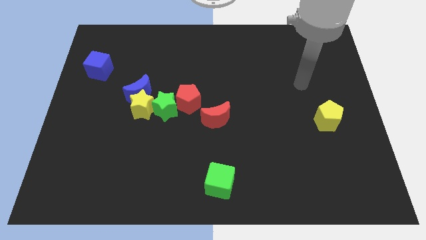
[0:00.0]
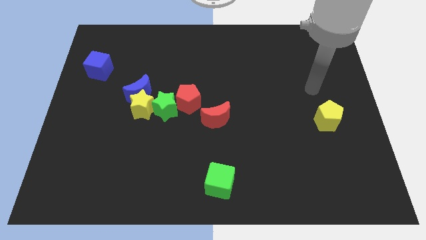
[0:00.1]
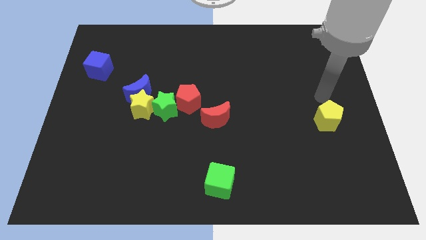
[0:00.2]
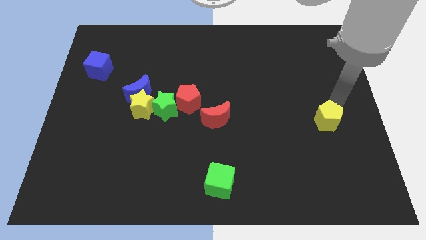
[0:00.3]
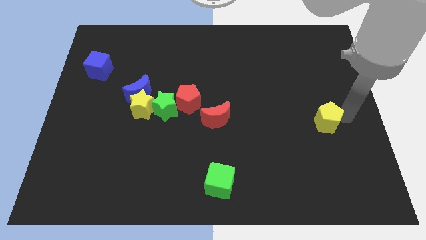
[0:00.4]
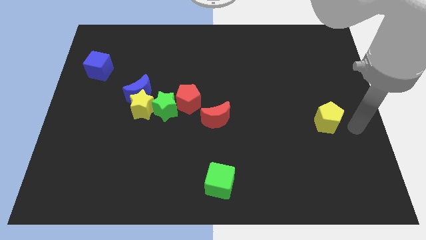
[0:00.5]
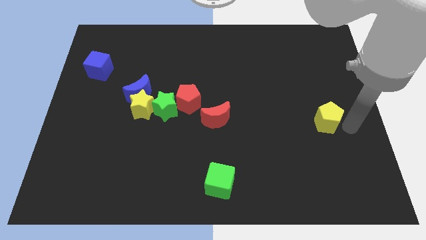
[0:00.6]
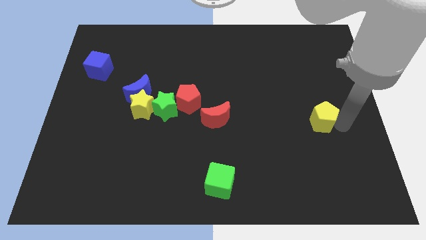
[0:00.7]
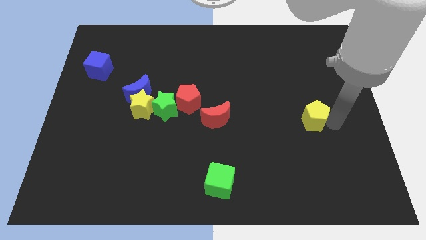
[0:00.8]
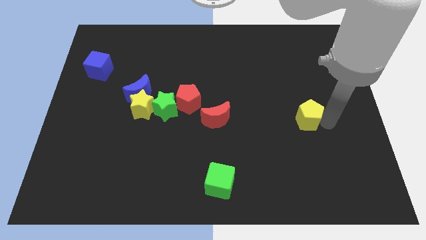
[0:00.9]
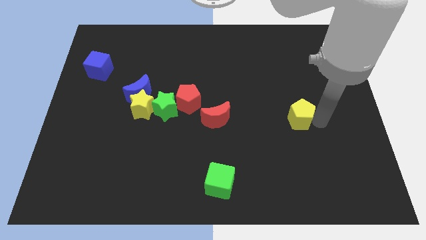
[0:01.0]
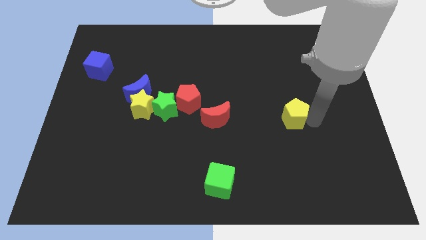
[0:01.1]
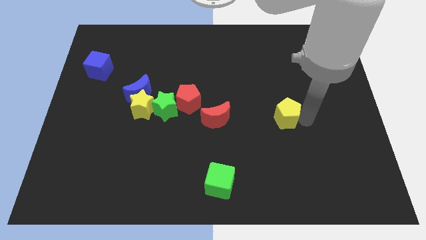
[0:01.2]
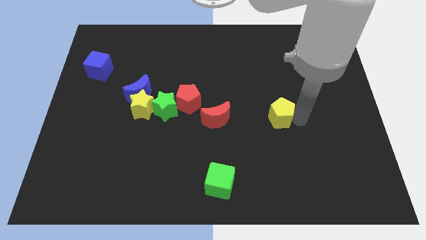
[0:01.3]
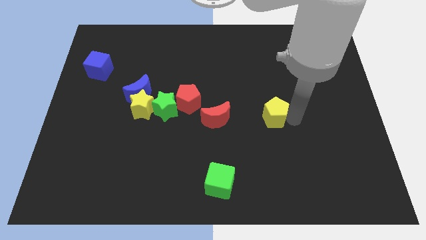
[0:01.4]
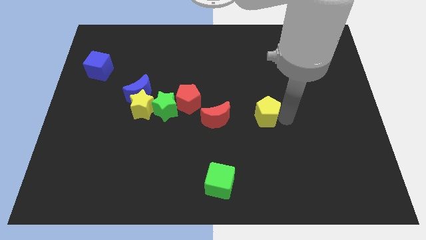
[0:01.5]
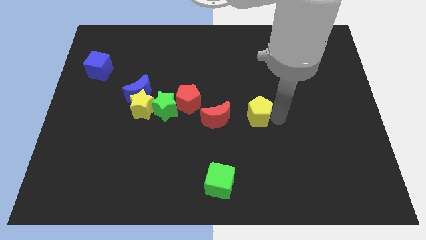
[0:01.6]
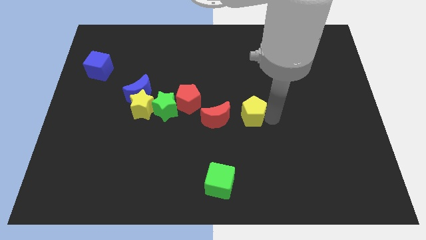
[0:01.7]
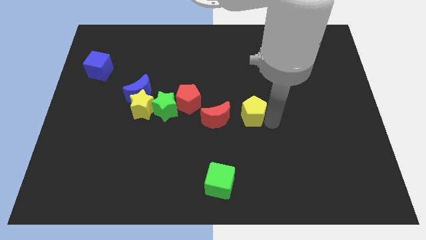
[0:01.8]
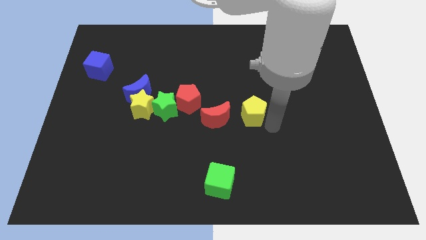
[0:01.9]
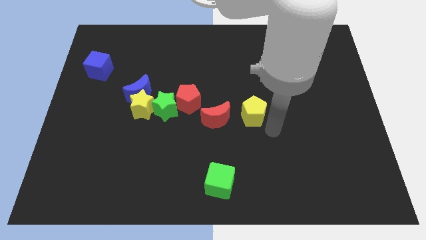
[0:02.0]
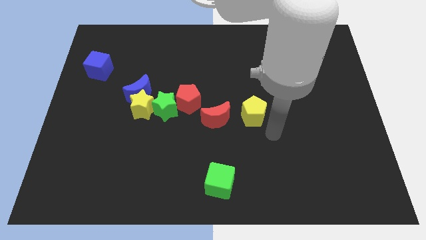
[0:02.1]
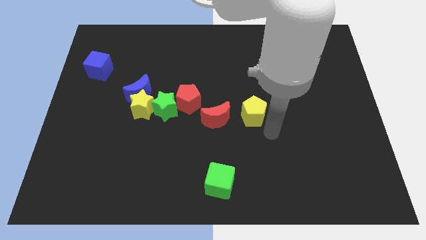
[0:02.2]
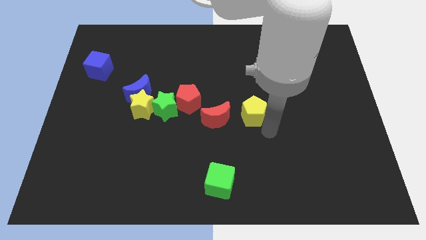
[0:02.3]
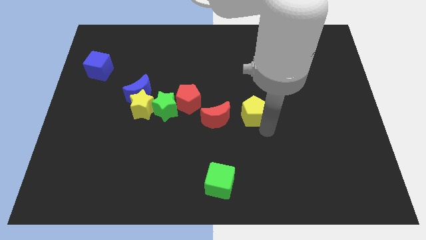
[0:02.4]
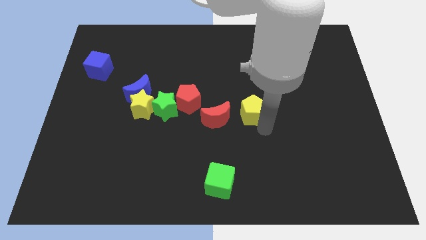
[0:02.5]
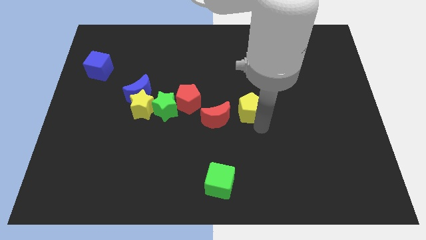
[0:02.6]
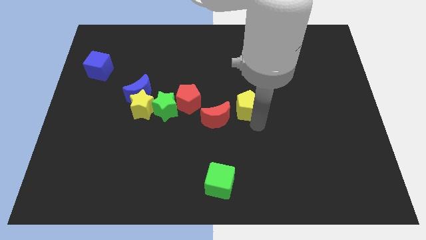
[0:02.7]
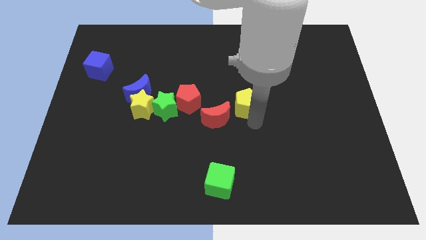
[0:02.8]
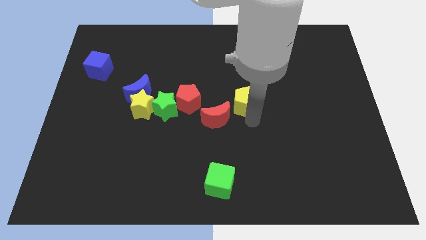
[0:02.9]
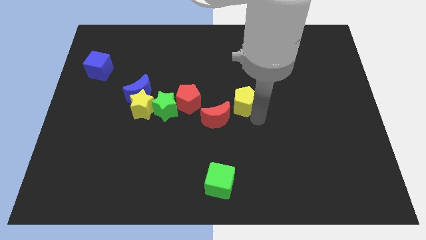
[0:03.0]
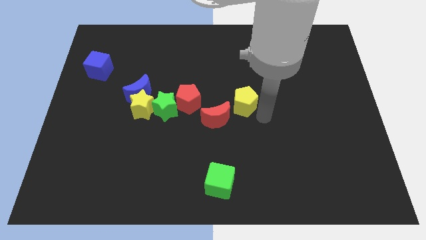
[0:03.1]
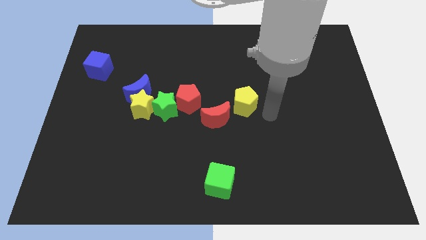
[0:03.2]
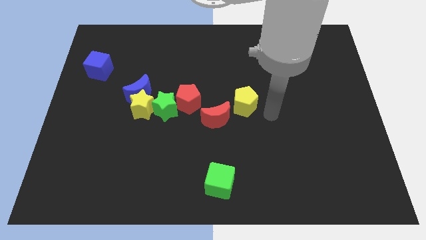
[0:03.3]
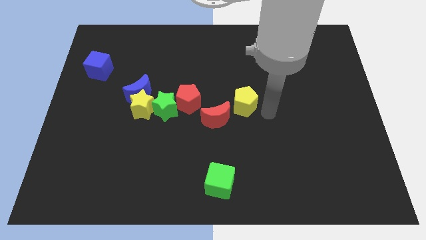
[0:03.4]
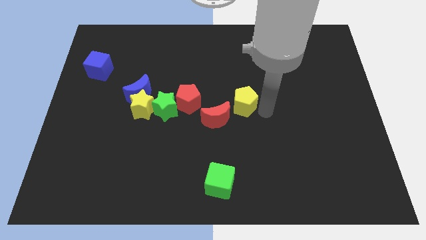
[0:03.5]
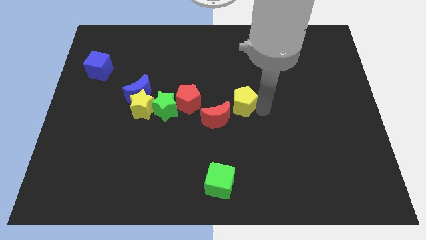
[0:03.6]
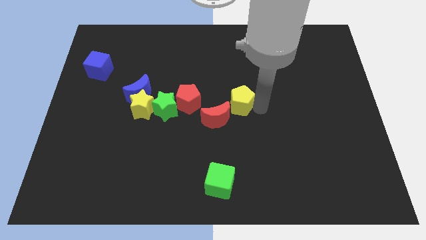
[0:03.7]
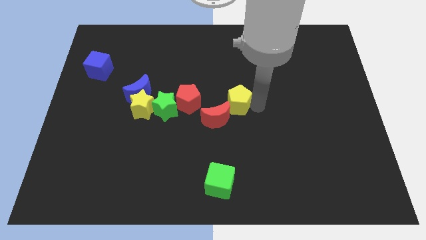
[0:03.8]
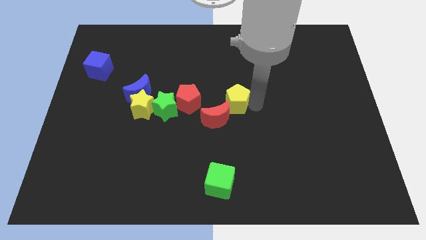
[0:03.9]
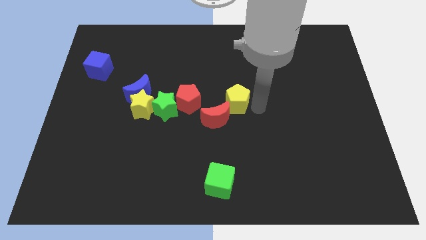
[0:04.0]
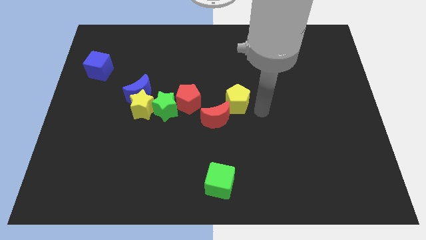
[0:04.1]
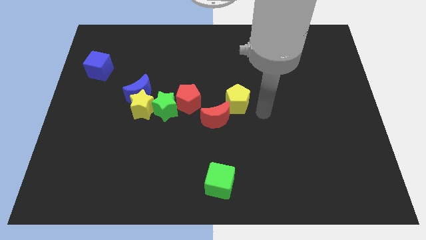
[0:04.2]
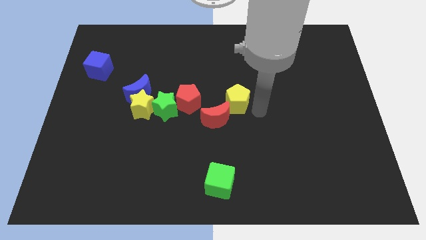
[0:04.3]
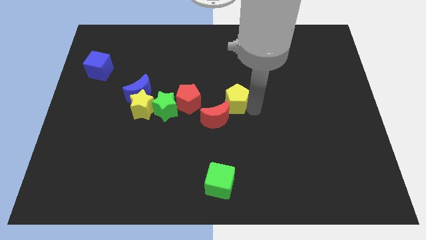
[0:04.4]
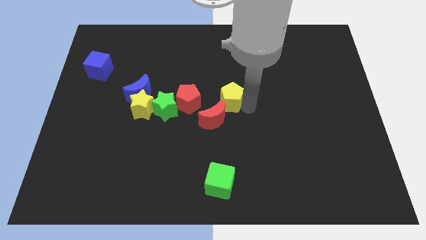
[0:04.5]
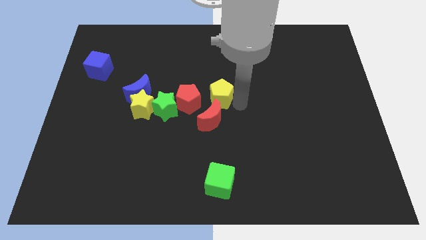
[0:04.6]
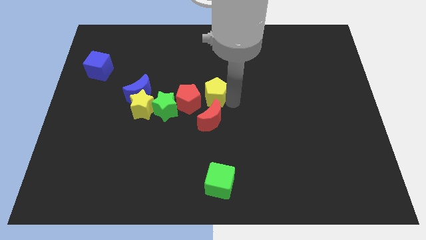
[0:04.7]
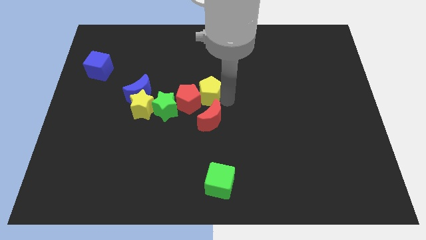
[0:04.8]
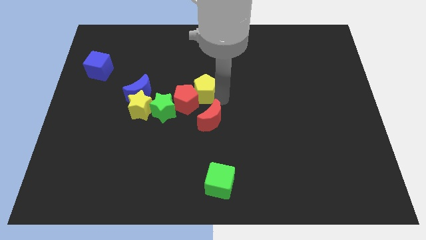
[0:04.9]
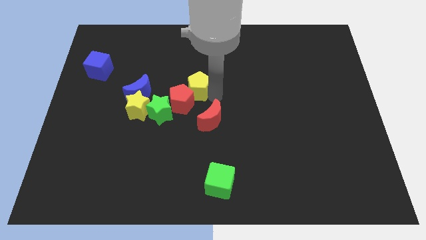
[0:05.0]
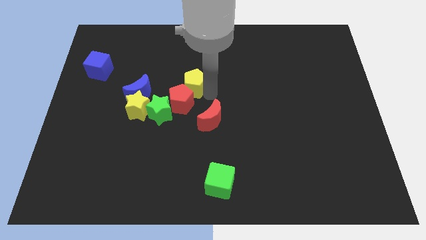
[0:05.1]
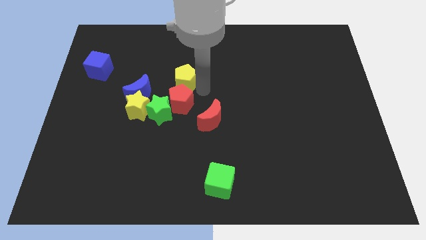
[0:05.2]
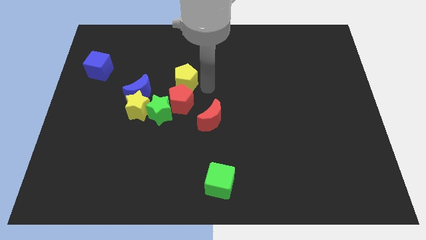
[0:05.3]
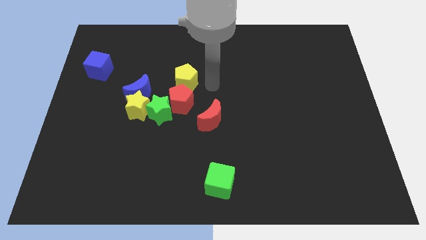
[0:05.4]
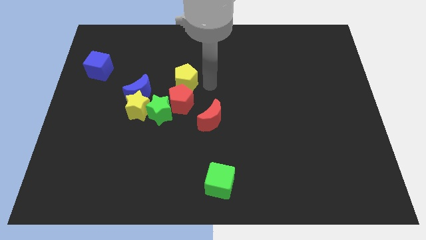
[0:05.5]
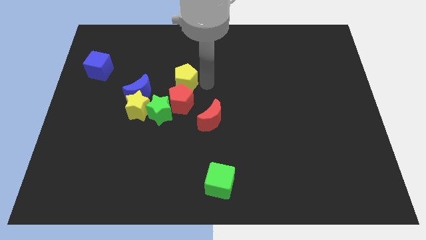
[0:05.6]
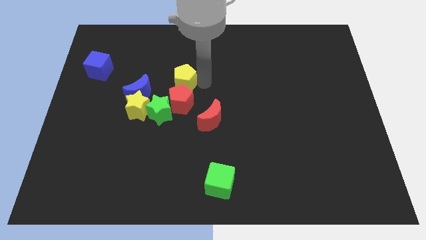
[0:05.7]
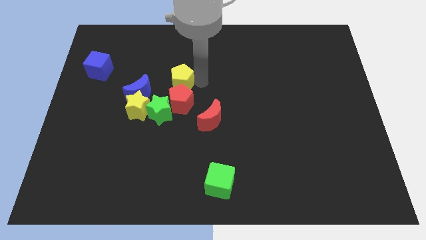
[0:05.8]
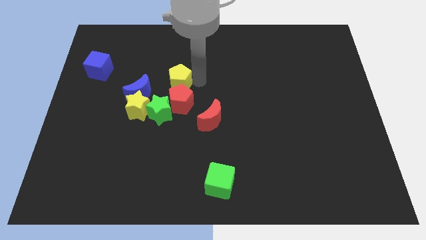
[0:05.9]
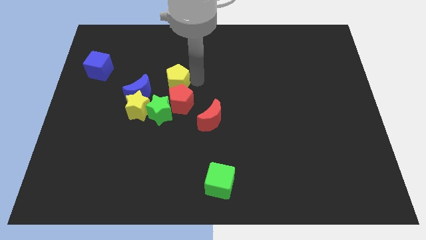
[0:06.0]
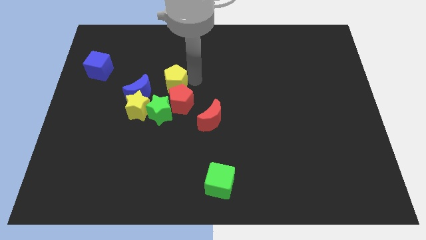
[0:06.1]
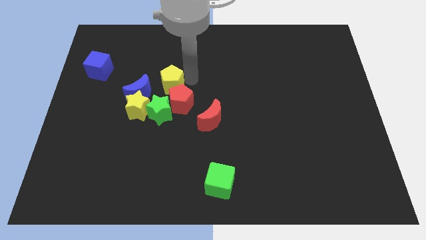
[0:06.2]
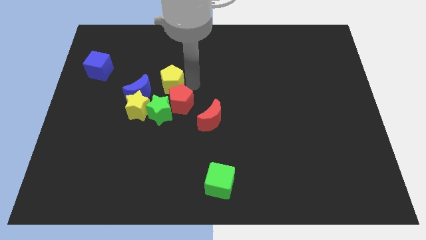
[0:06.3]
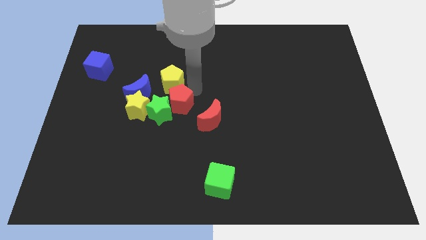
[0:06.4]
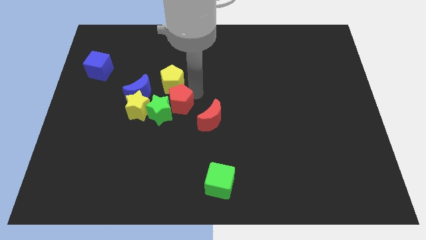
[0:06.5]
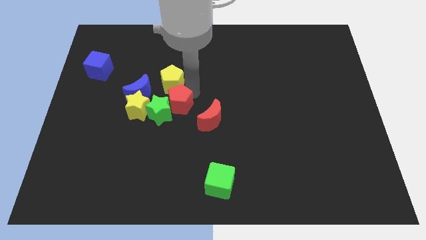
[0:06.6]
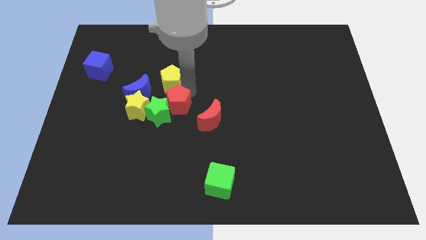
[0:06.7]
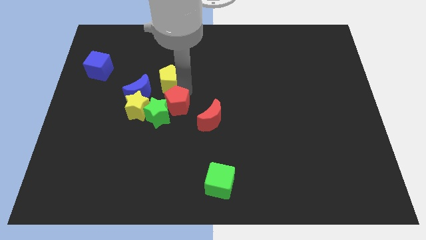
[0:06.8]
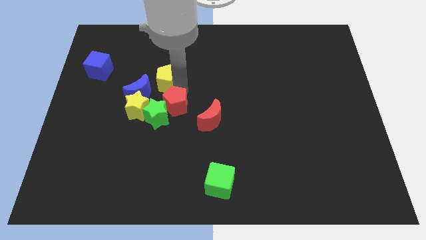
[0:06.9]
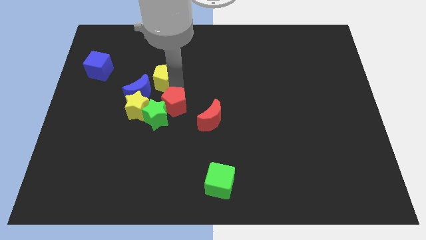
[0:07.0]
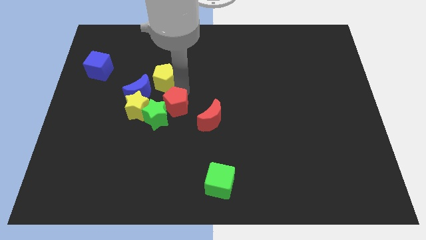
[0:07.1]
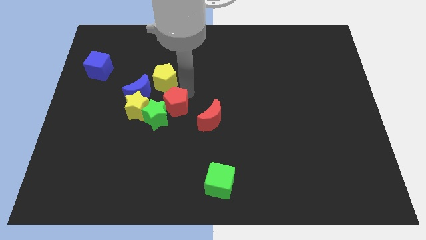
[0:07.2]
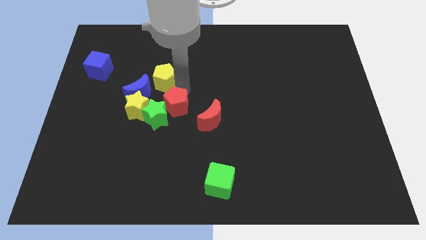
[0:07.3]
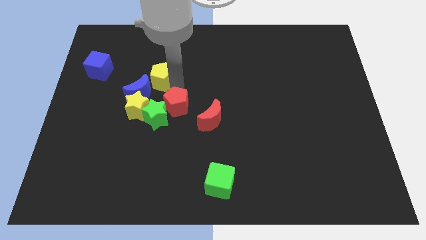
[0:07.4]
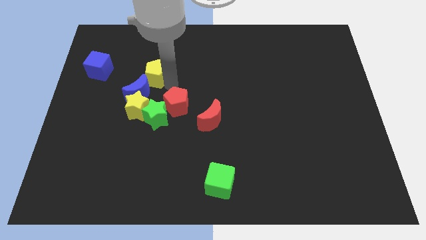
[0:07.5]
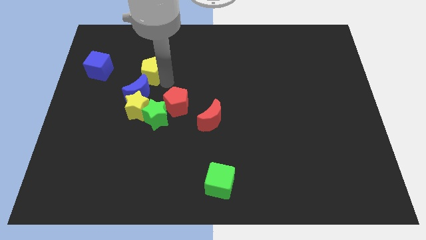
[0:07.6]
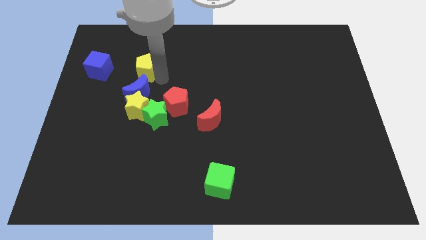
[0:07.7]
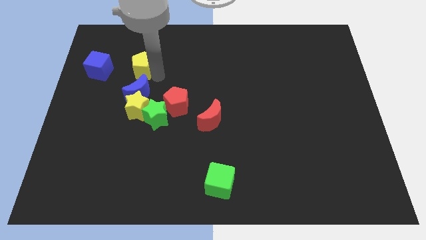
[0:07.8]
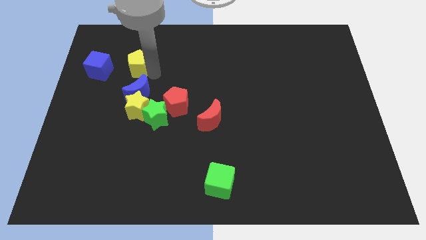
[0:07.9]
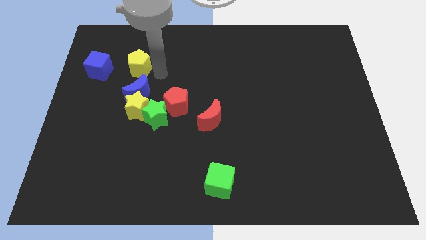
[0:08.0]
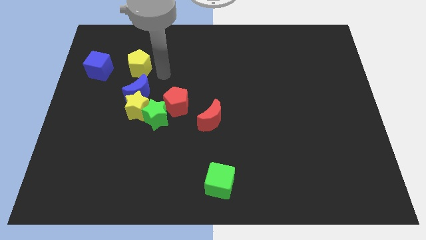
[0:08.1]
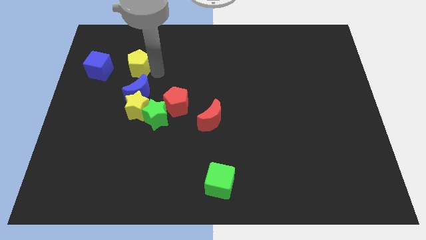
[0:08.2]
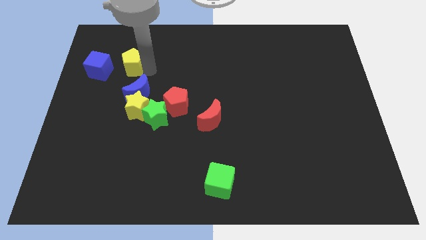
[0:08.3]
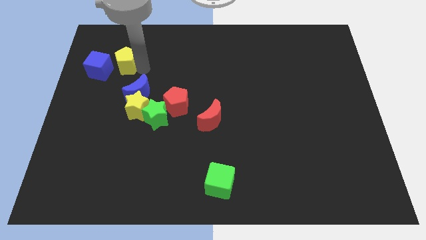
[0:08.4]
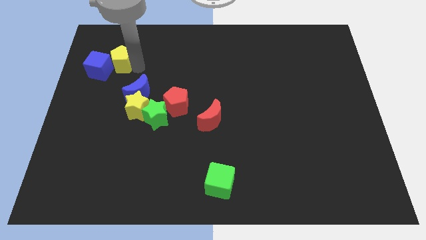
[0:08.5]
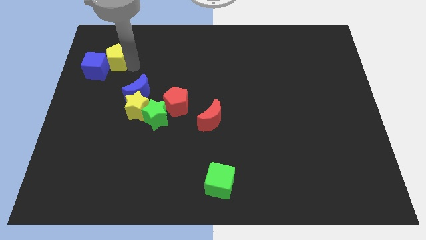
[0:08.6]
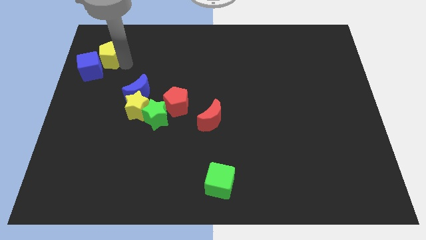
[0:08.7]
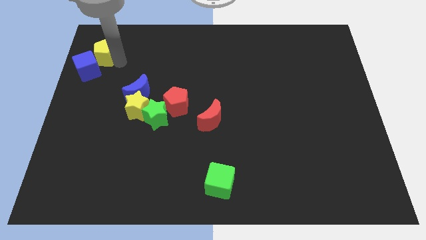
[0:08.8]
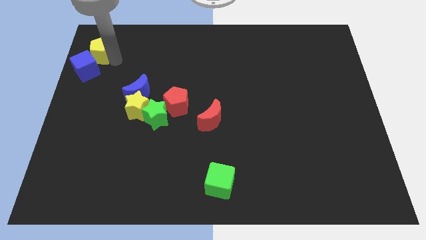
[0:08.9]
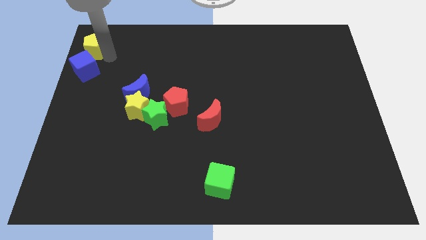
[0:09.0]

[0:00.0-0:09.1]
slide the yellow pentagon to the top left corner
